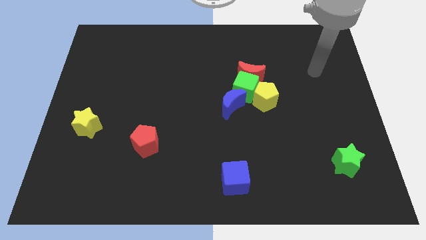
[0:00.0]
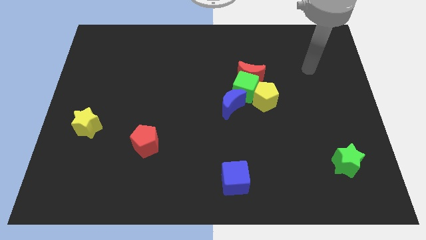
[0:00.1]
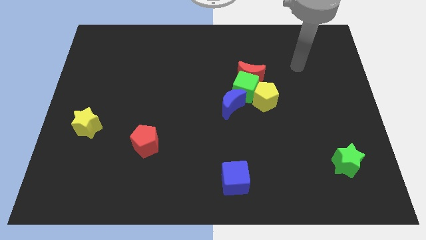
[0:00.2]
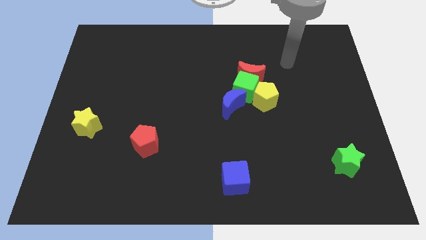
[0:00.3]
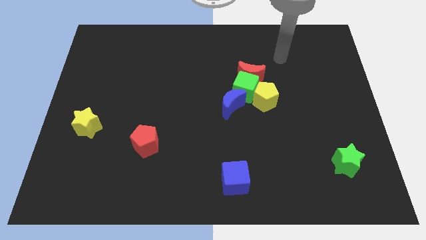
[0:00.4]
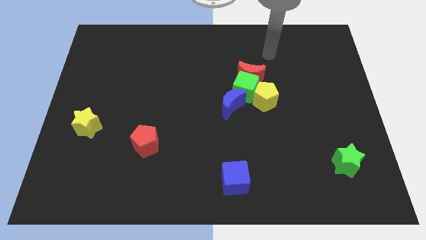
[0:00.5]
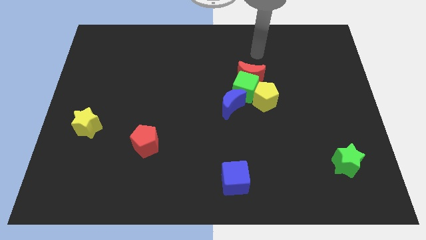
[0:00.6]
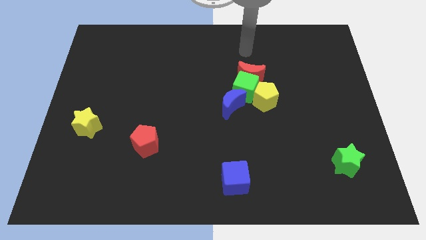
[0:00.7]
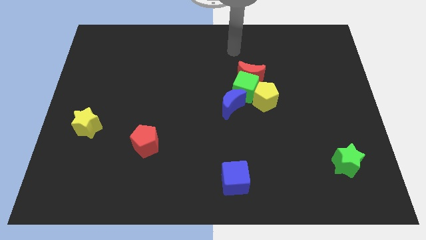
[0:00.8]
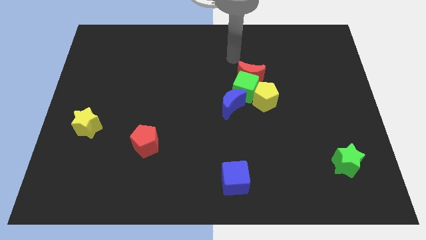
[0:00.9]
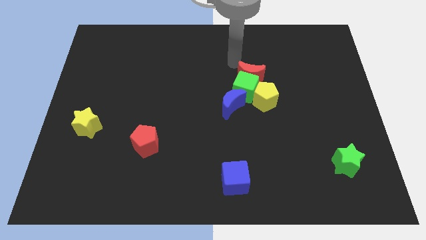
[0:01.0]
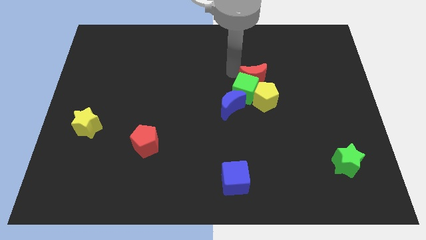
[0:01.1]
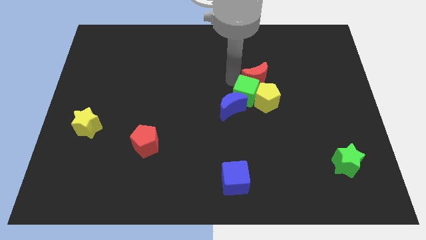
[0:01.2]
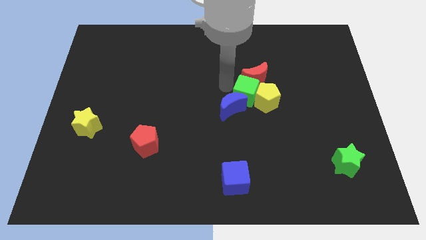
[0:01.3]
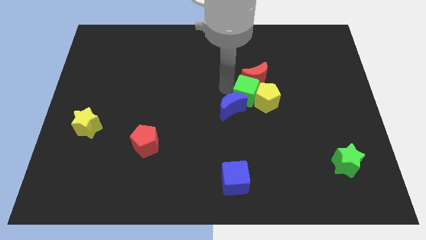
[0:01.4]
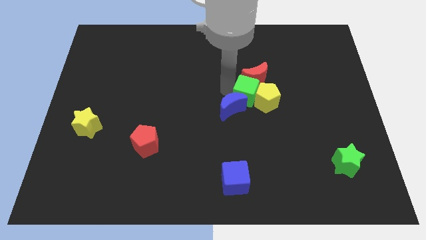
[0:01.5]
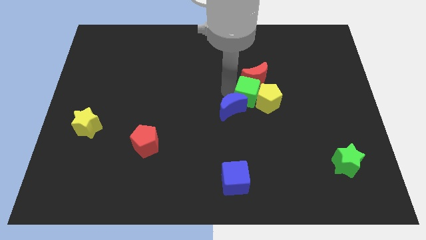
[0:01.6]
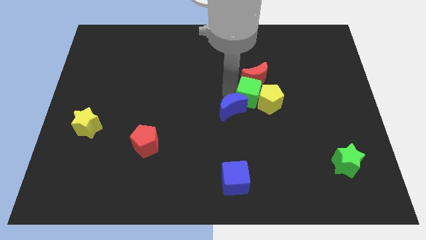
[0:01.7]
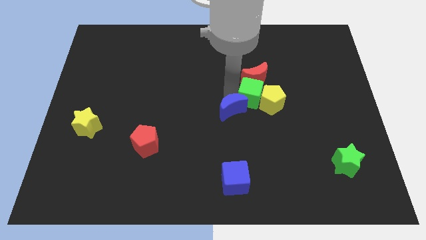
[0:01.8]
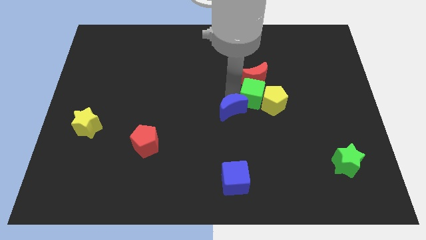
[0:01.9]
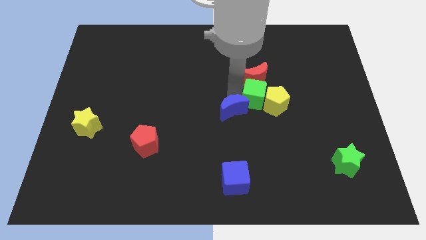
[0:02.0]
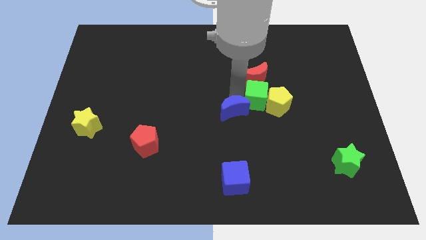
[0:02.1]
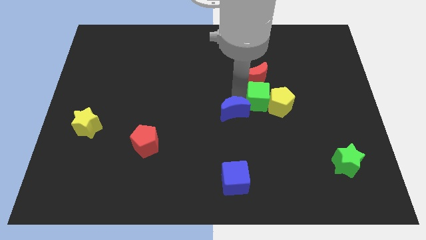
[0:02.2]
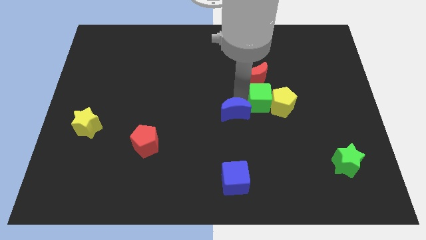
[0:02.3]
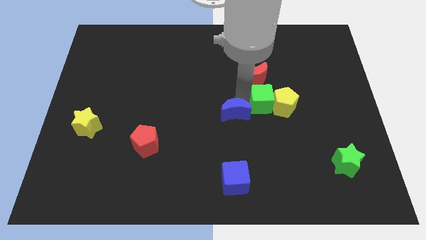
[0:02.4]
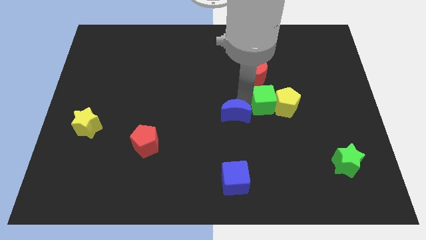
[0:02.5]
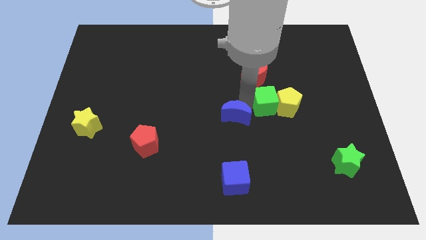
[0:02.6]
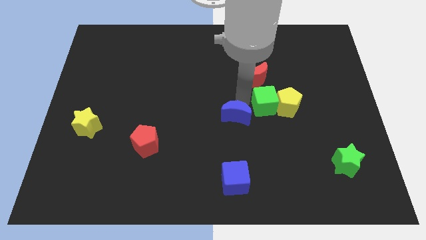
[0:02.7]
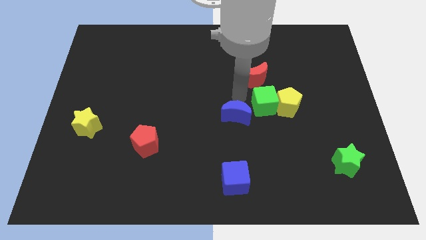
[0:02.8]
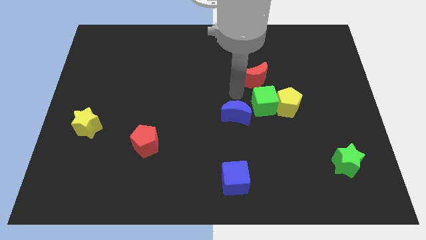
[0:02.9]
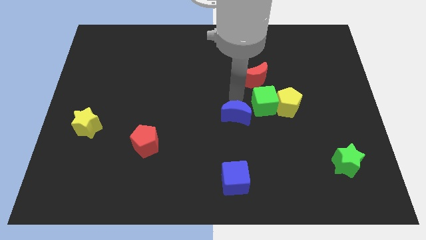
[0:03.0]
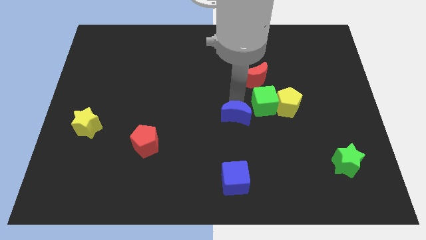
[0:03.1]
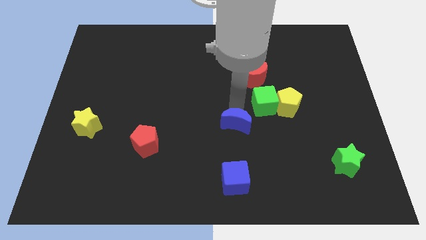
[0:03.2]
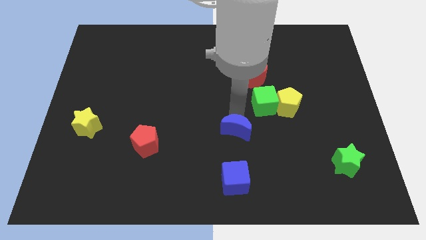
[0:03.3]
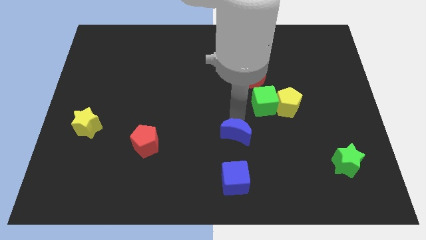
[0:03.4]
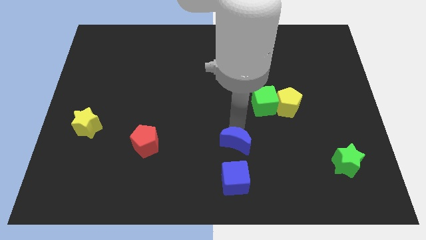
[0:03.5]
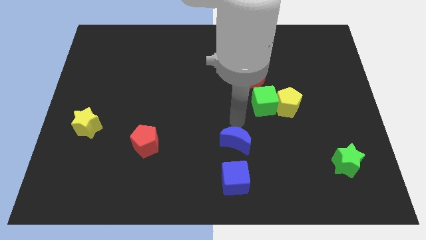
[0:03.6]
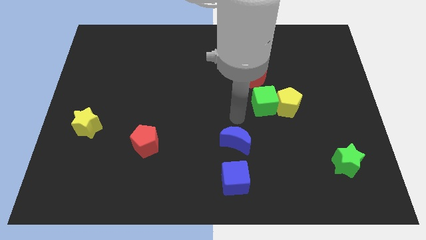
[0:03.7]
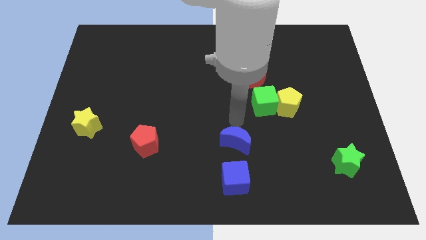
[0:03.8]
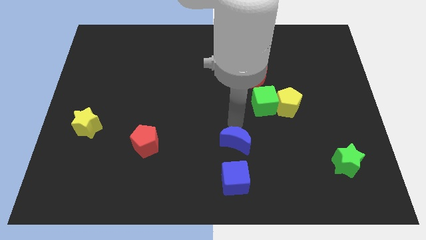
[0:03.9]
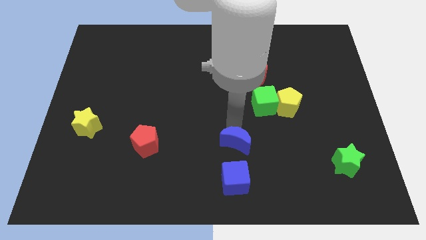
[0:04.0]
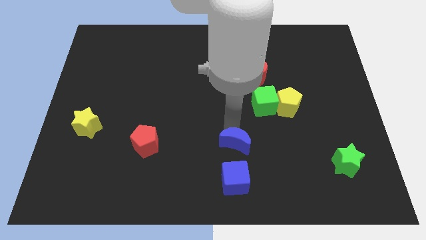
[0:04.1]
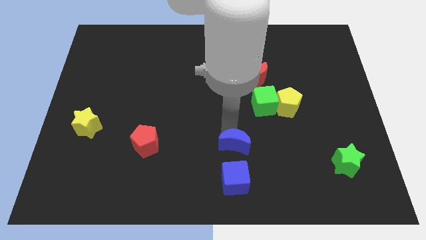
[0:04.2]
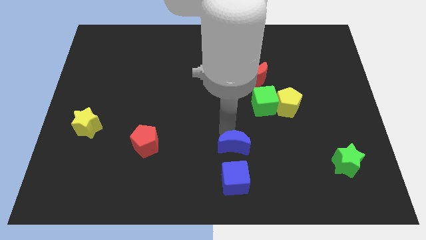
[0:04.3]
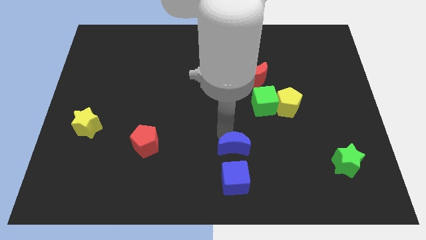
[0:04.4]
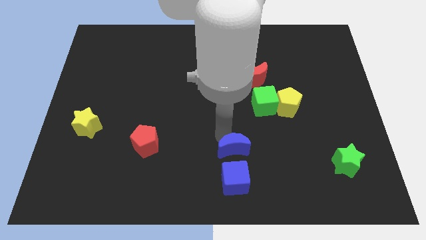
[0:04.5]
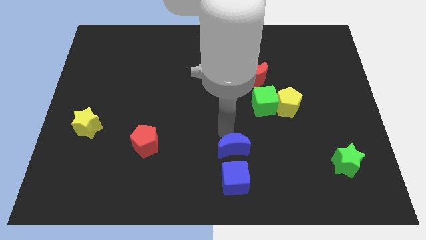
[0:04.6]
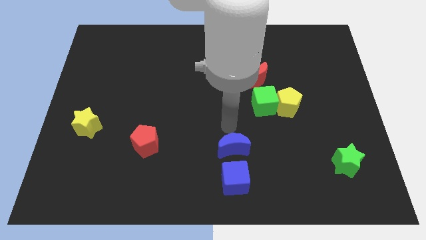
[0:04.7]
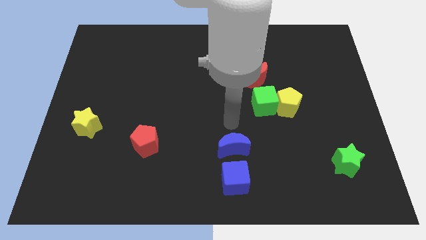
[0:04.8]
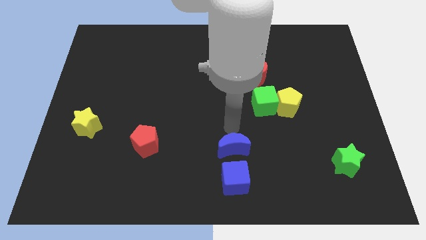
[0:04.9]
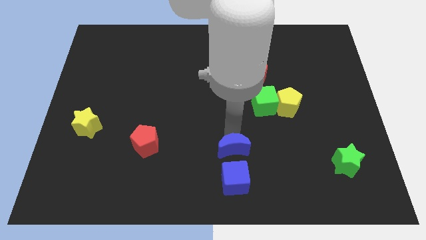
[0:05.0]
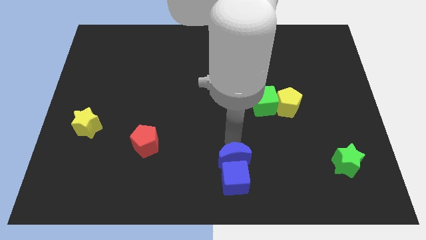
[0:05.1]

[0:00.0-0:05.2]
put the blue moon close to the blue cube
